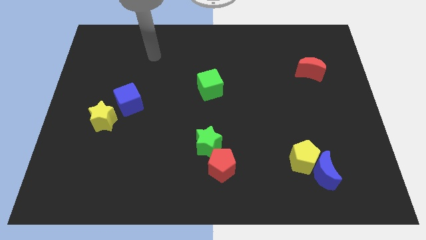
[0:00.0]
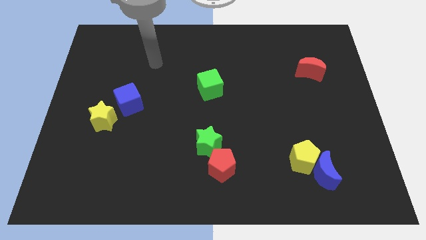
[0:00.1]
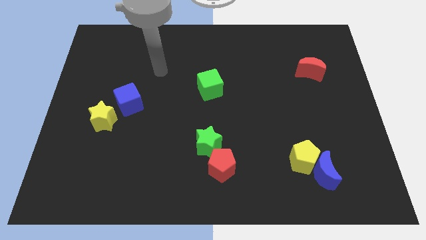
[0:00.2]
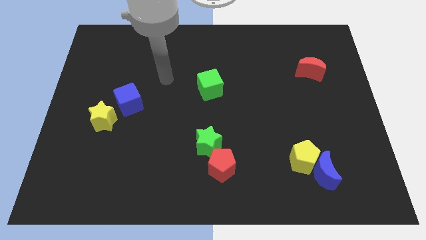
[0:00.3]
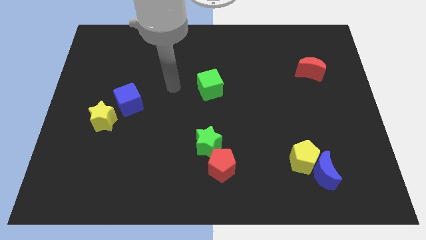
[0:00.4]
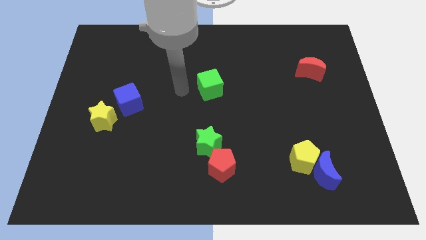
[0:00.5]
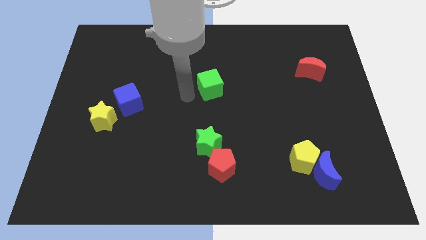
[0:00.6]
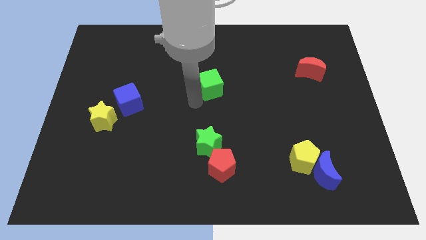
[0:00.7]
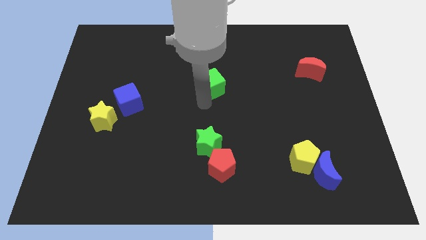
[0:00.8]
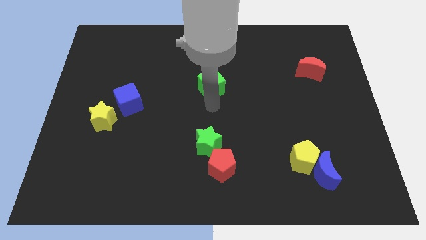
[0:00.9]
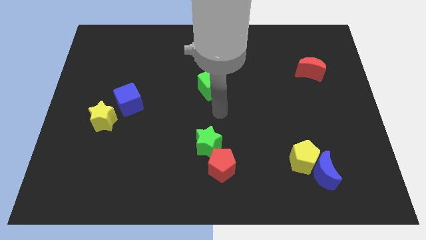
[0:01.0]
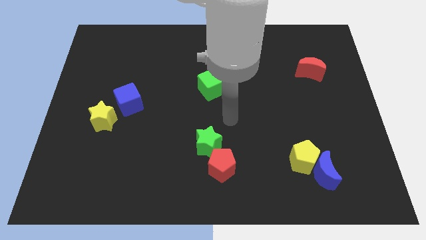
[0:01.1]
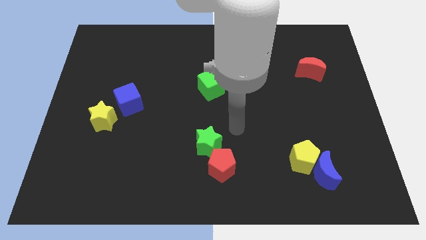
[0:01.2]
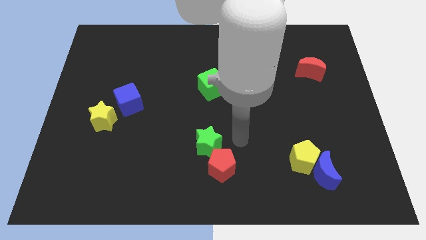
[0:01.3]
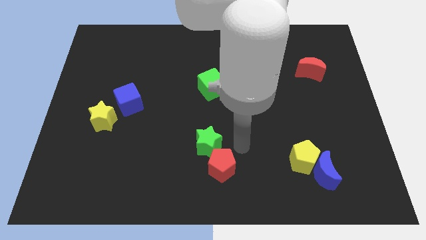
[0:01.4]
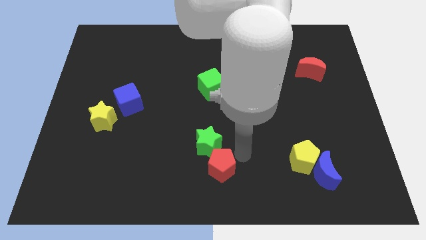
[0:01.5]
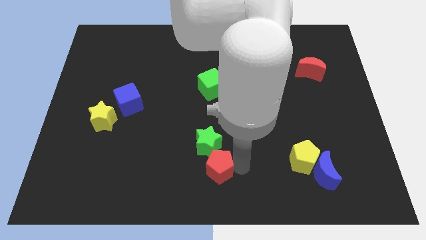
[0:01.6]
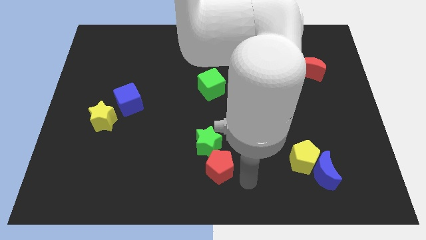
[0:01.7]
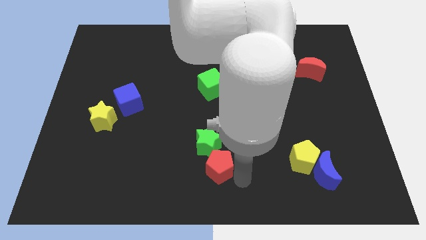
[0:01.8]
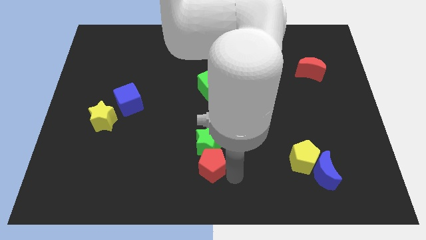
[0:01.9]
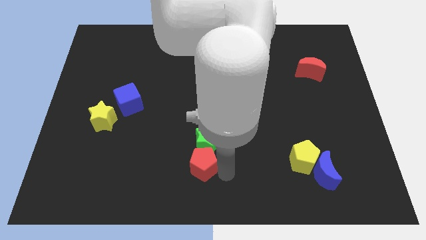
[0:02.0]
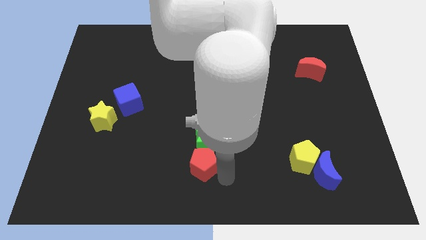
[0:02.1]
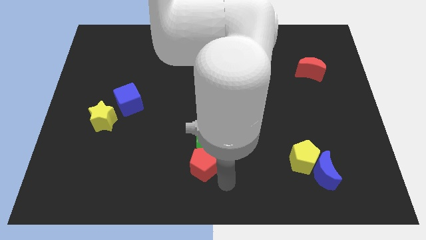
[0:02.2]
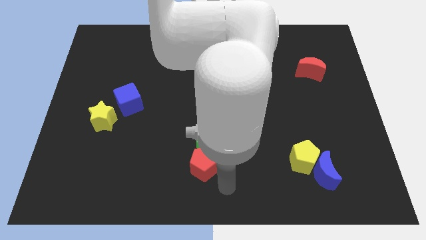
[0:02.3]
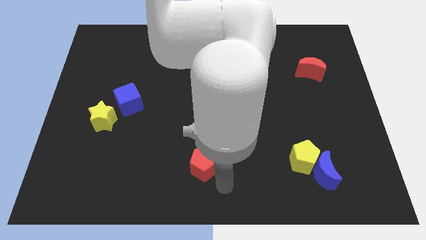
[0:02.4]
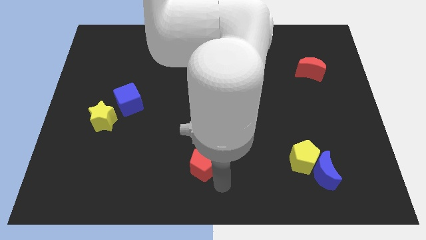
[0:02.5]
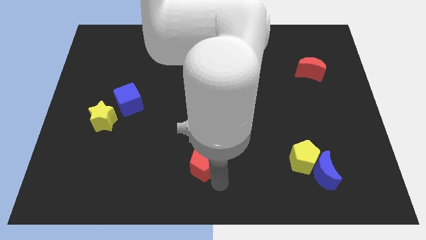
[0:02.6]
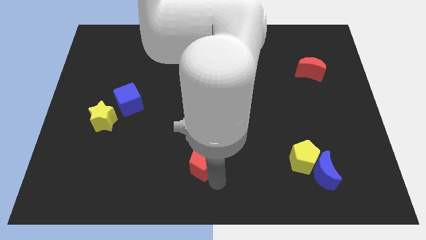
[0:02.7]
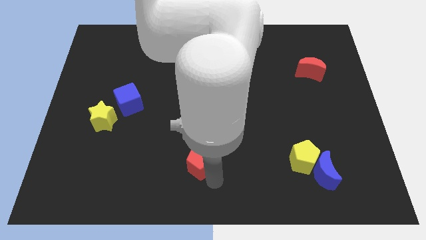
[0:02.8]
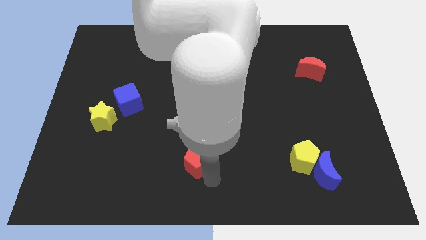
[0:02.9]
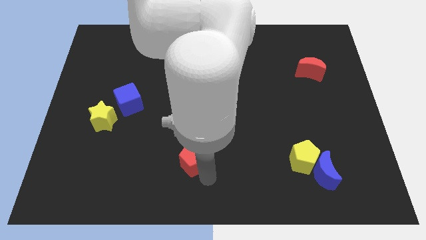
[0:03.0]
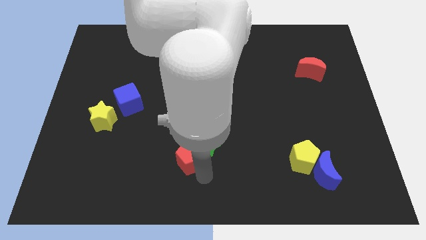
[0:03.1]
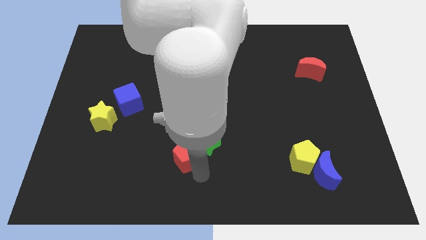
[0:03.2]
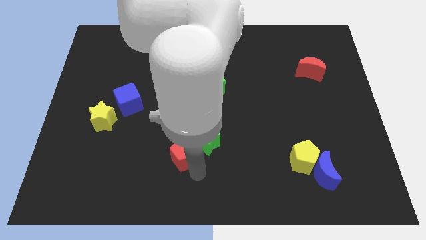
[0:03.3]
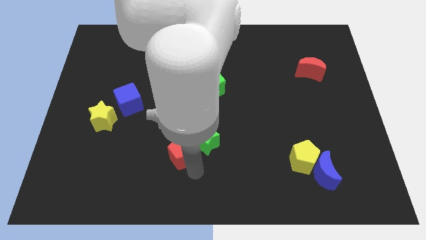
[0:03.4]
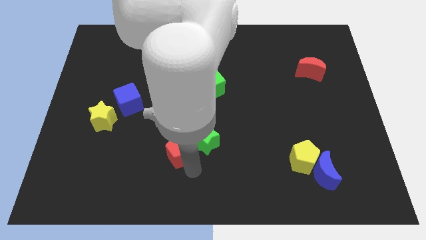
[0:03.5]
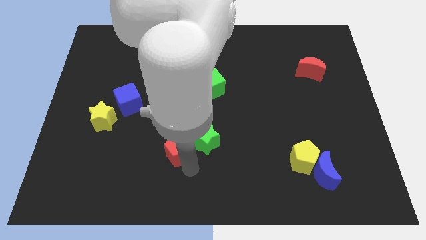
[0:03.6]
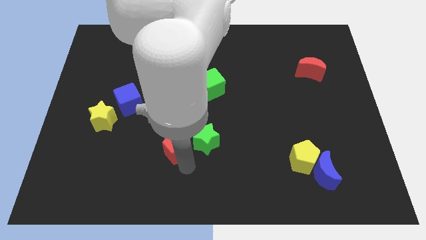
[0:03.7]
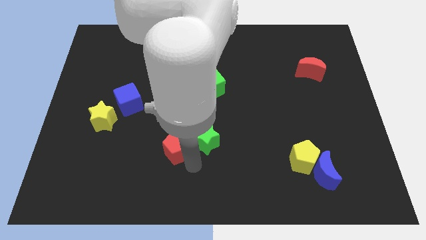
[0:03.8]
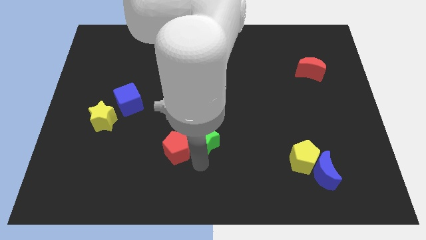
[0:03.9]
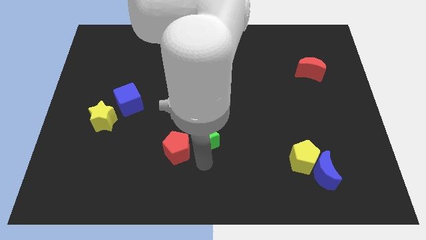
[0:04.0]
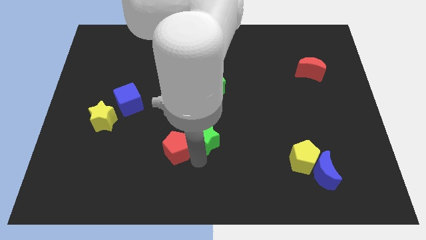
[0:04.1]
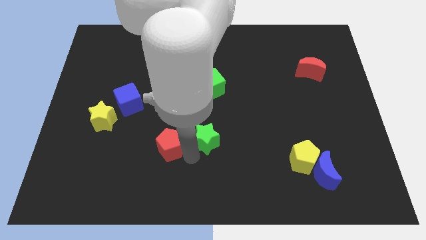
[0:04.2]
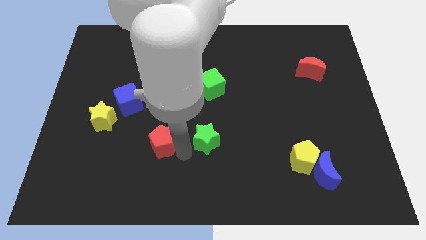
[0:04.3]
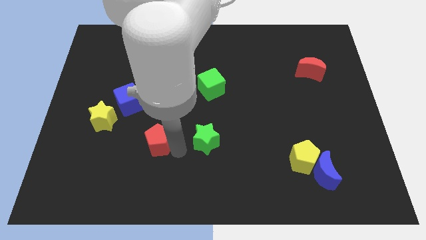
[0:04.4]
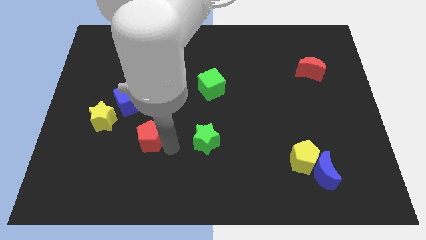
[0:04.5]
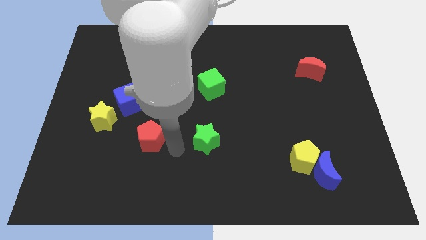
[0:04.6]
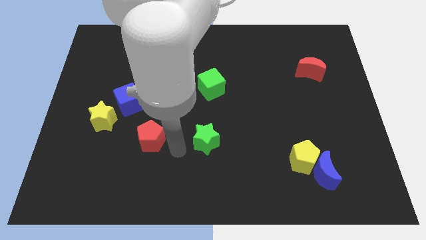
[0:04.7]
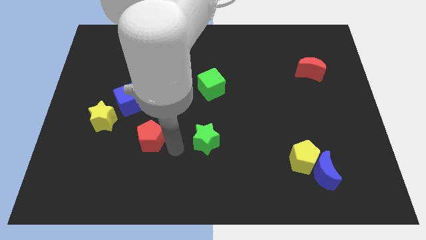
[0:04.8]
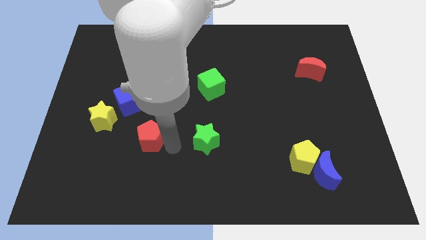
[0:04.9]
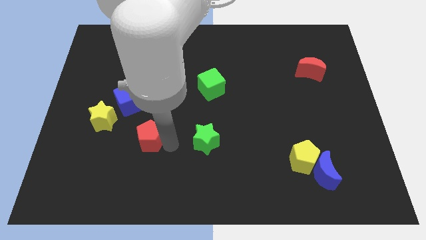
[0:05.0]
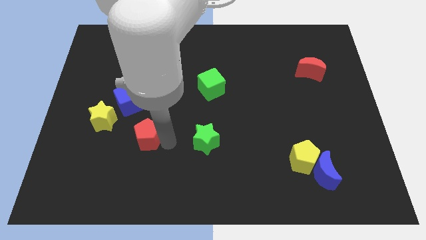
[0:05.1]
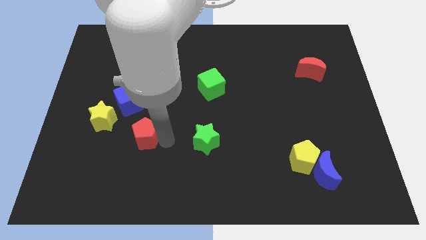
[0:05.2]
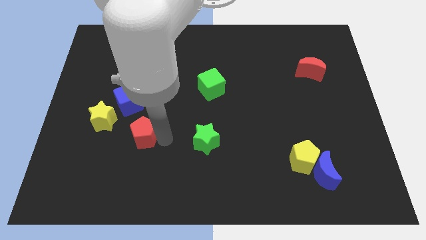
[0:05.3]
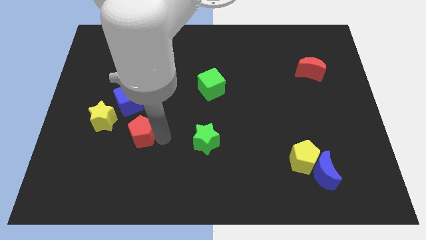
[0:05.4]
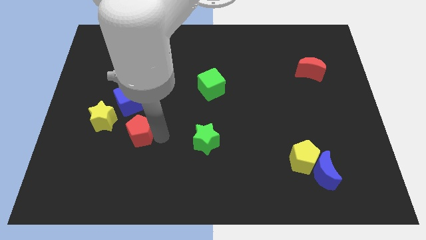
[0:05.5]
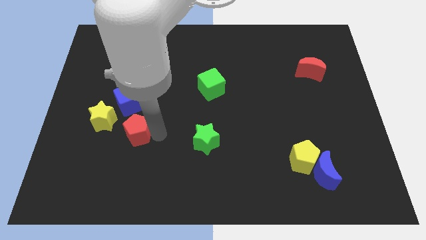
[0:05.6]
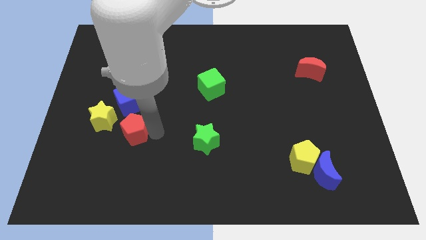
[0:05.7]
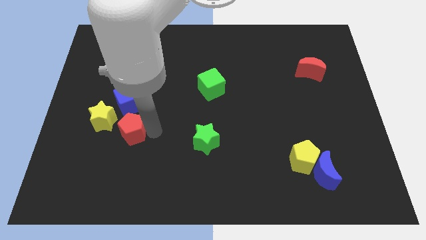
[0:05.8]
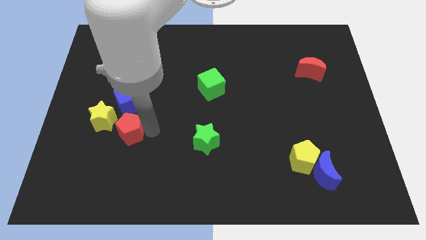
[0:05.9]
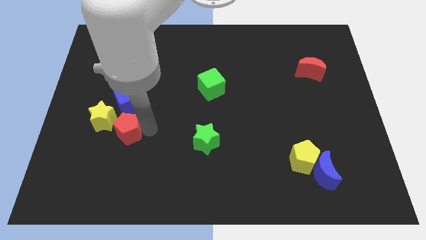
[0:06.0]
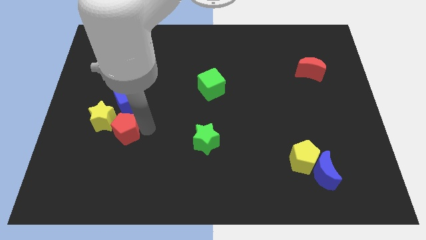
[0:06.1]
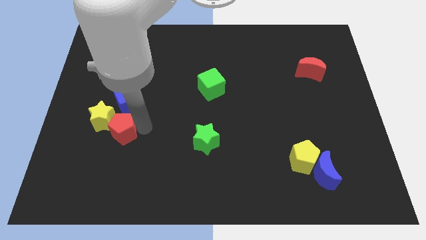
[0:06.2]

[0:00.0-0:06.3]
slide the red pentagon close to the yellow star
